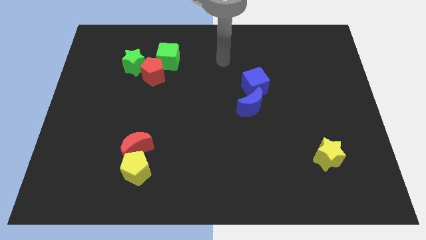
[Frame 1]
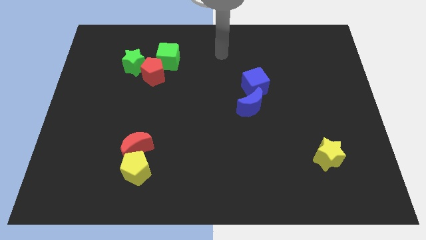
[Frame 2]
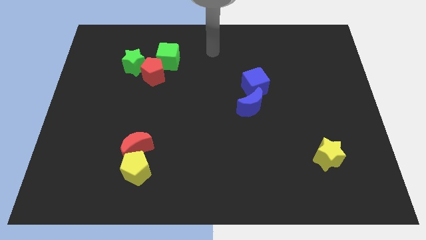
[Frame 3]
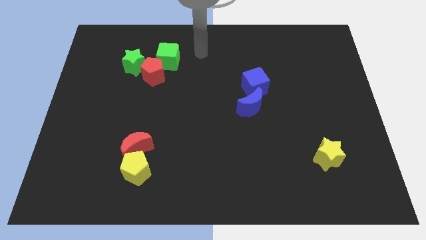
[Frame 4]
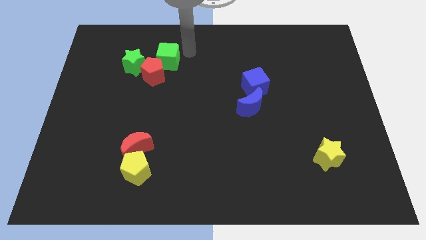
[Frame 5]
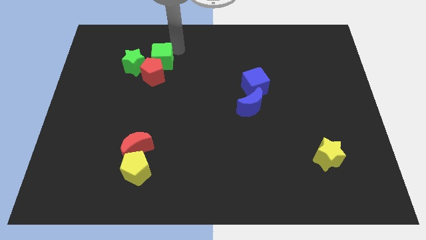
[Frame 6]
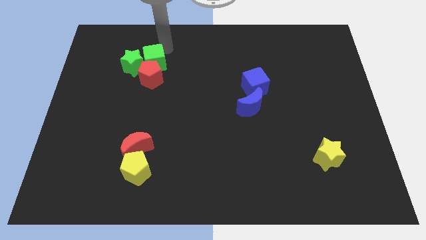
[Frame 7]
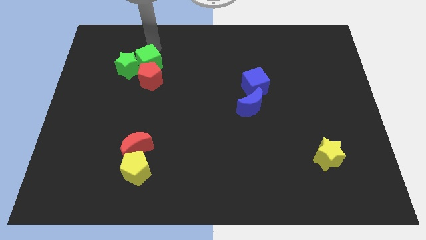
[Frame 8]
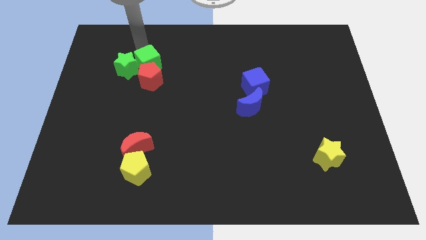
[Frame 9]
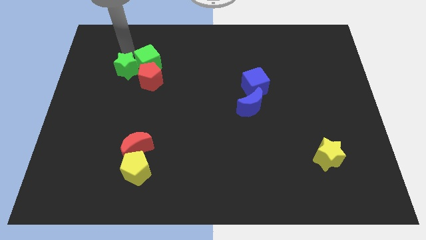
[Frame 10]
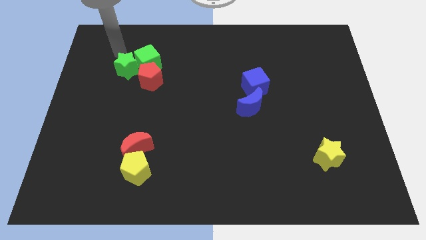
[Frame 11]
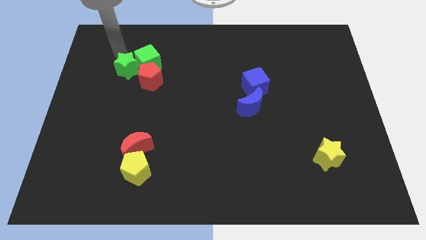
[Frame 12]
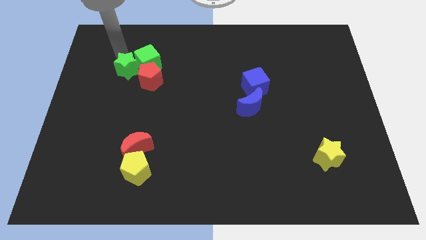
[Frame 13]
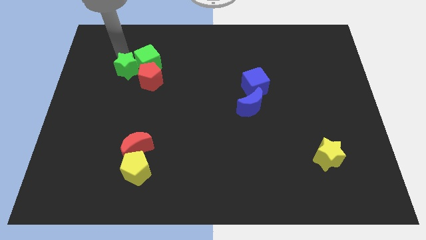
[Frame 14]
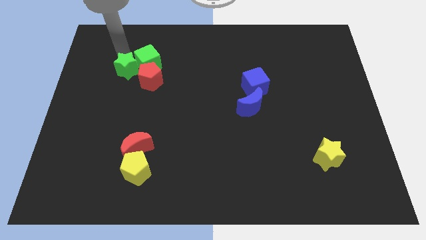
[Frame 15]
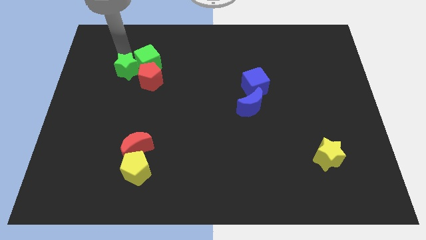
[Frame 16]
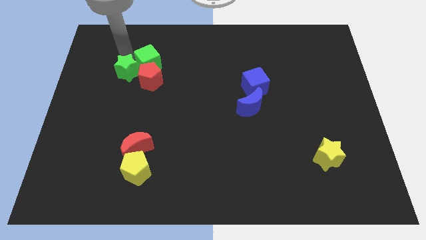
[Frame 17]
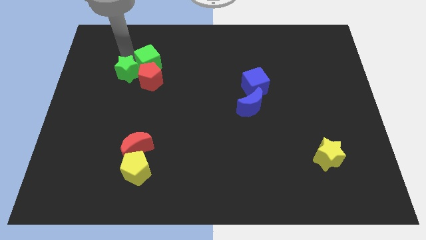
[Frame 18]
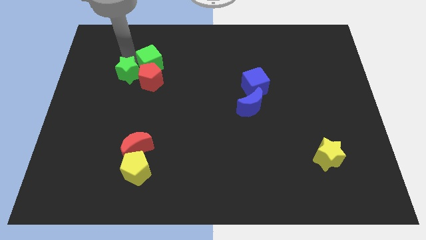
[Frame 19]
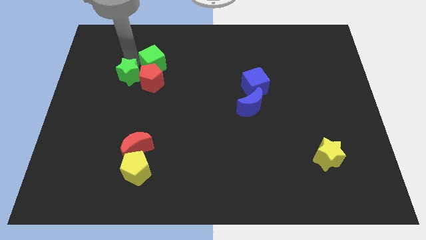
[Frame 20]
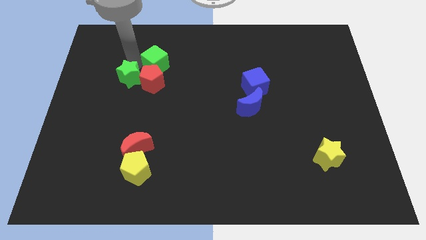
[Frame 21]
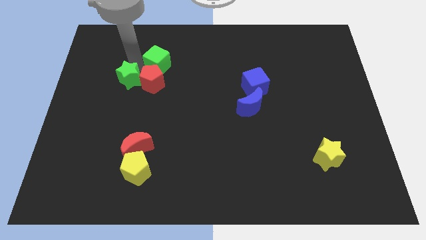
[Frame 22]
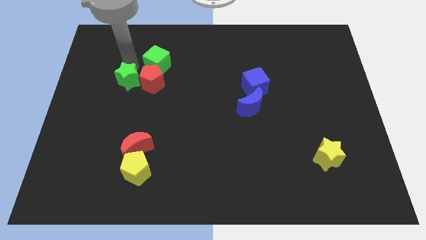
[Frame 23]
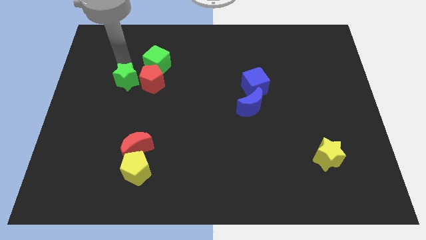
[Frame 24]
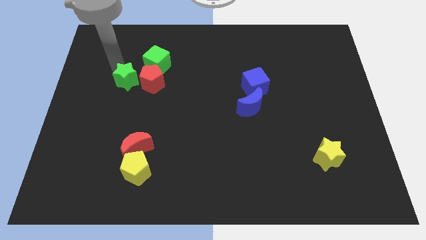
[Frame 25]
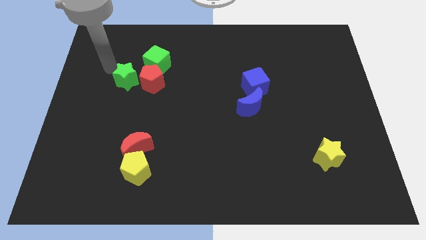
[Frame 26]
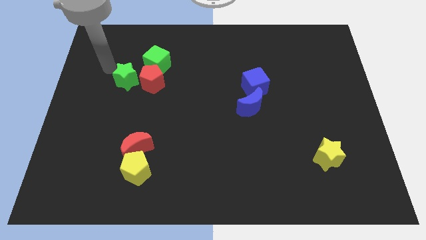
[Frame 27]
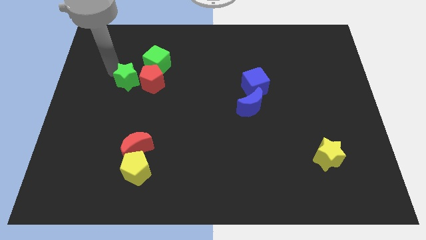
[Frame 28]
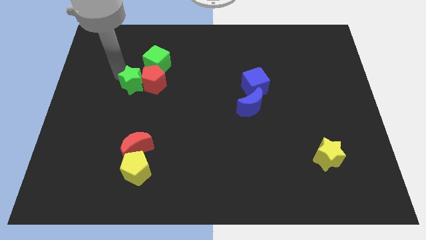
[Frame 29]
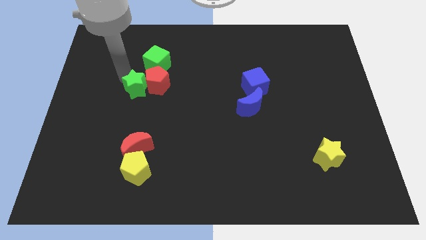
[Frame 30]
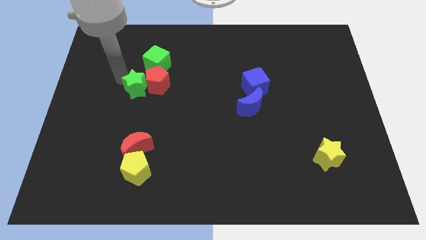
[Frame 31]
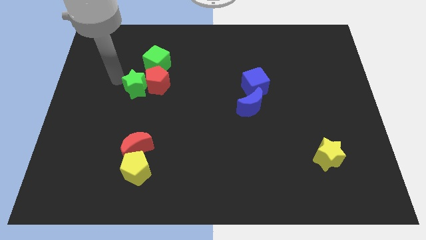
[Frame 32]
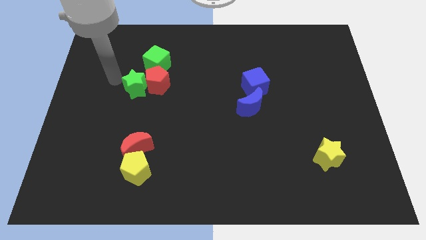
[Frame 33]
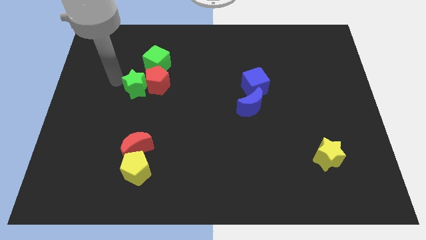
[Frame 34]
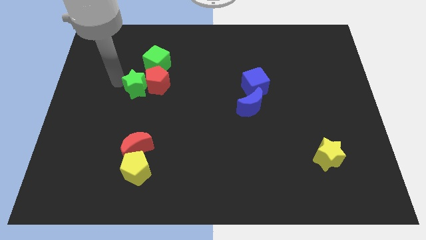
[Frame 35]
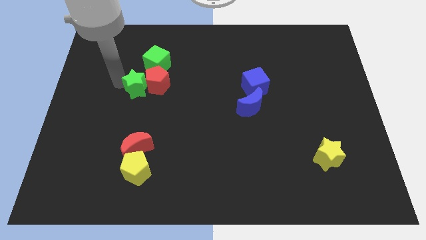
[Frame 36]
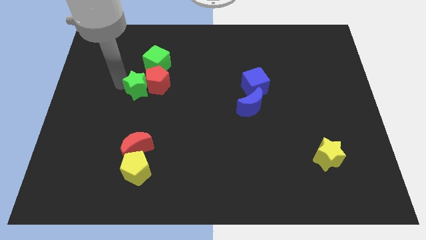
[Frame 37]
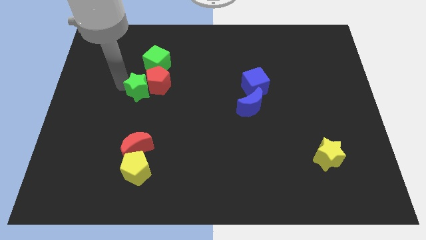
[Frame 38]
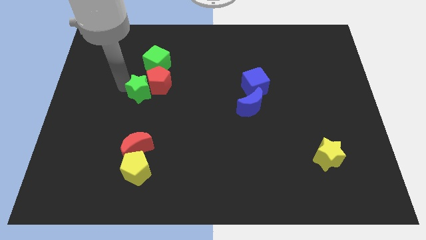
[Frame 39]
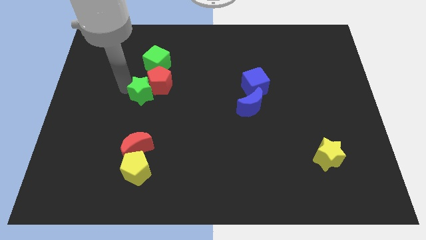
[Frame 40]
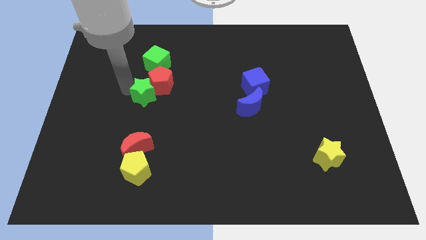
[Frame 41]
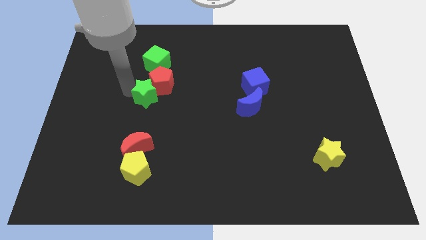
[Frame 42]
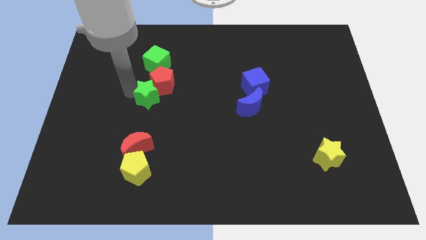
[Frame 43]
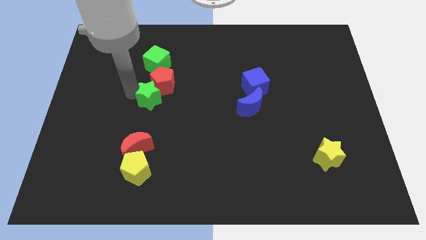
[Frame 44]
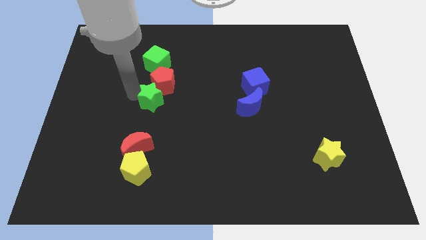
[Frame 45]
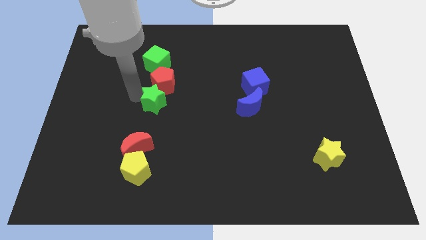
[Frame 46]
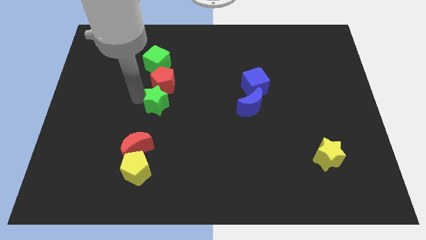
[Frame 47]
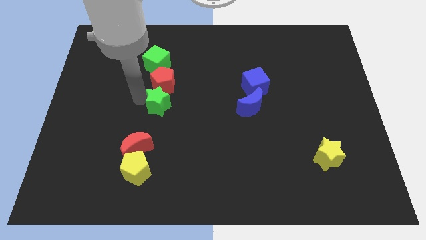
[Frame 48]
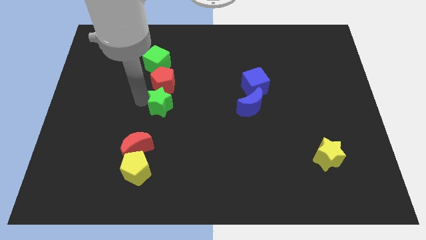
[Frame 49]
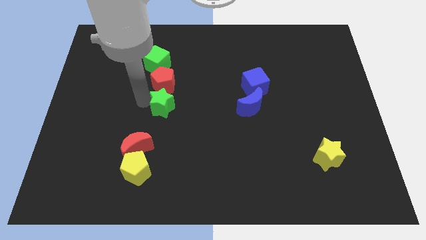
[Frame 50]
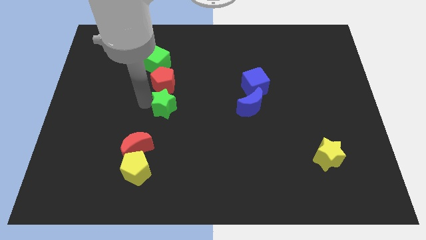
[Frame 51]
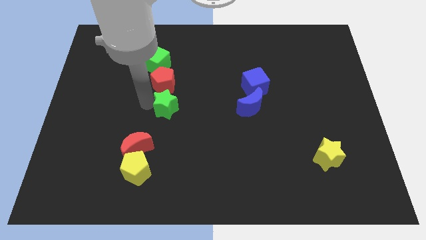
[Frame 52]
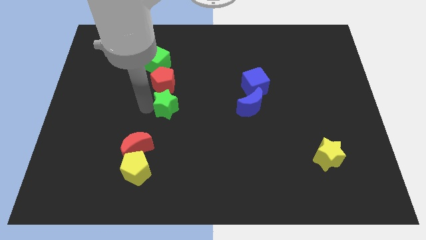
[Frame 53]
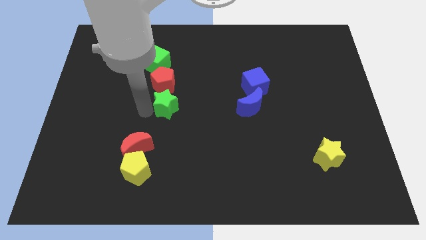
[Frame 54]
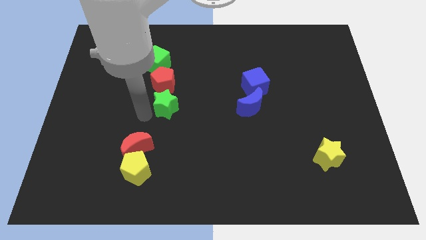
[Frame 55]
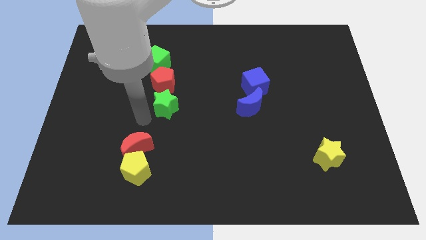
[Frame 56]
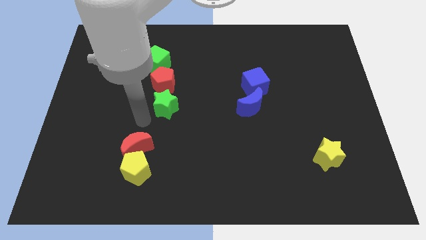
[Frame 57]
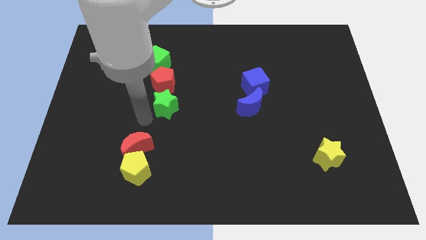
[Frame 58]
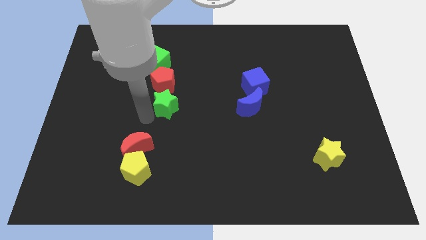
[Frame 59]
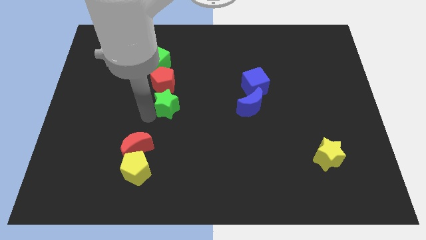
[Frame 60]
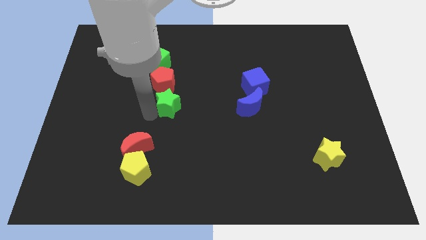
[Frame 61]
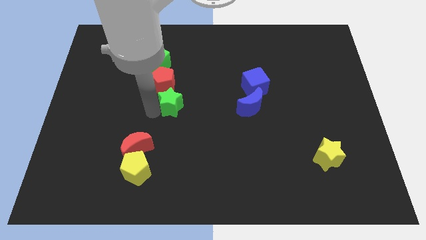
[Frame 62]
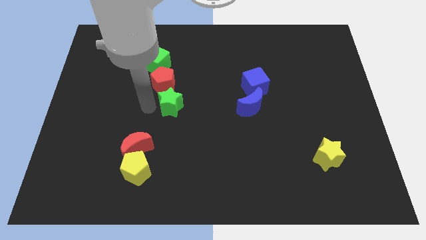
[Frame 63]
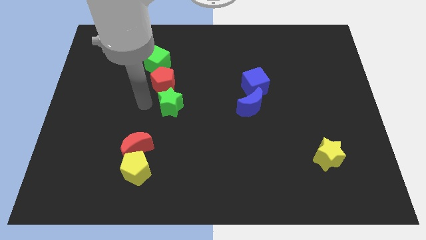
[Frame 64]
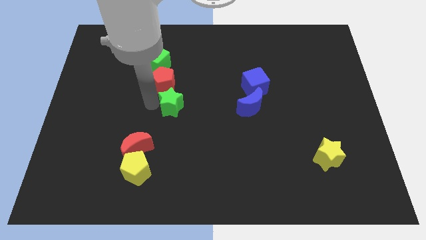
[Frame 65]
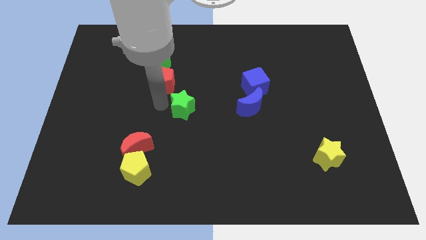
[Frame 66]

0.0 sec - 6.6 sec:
slide the green star to the left of the blue moon

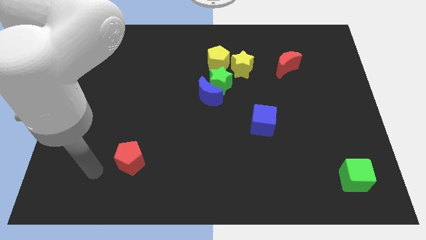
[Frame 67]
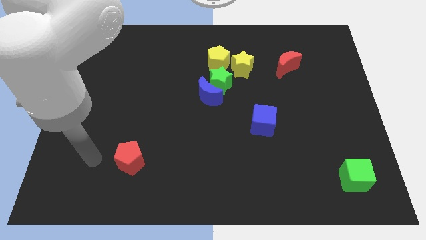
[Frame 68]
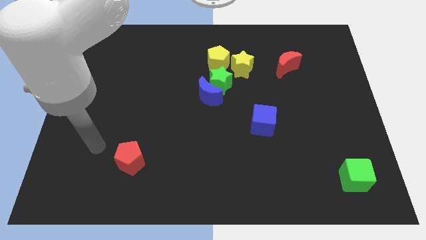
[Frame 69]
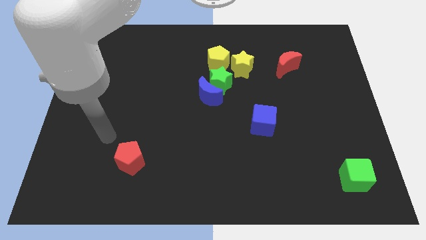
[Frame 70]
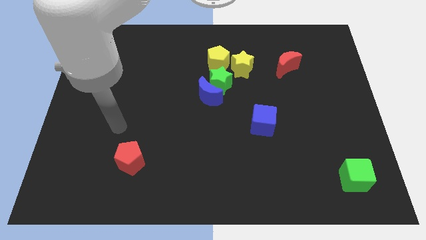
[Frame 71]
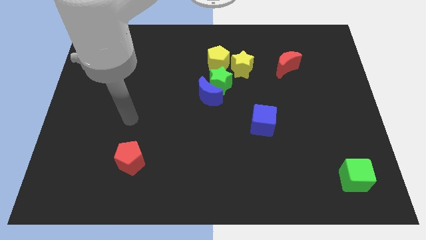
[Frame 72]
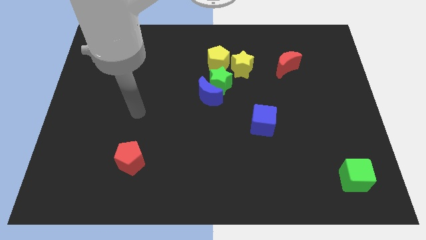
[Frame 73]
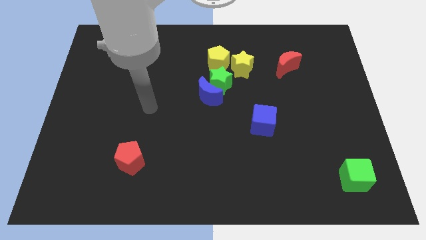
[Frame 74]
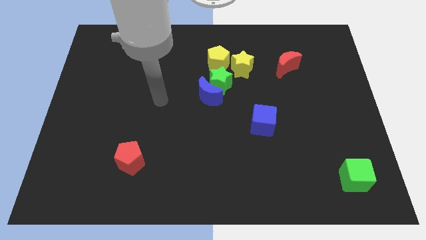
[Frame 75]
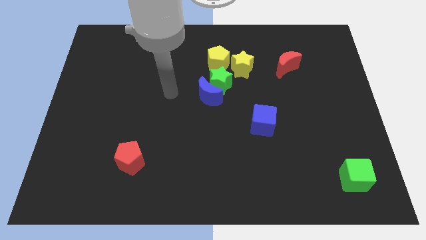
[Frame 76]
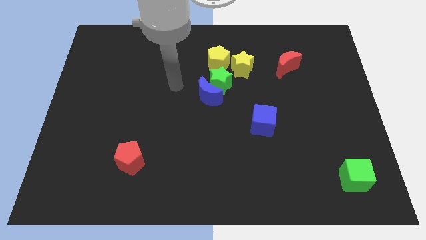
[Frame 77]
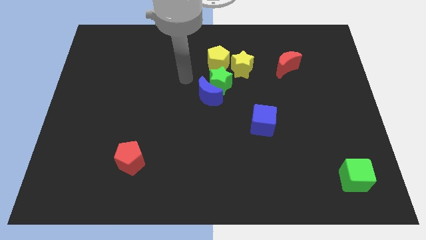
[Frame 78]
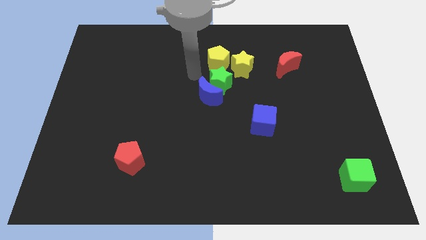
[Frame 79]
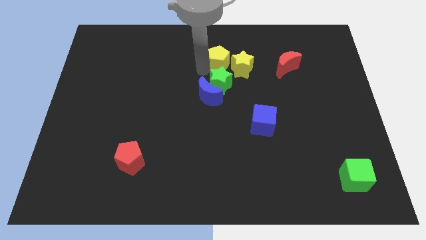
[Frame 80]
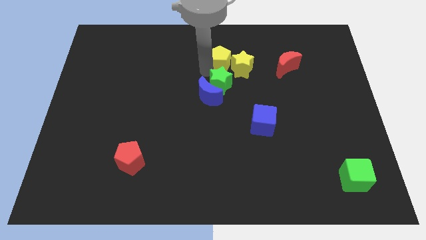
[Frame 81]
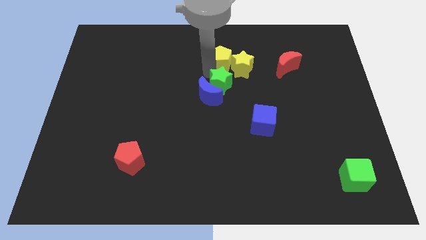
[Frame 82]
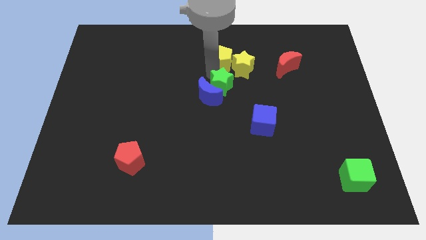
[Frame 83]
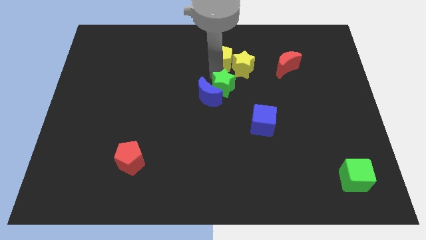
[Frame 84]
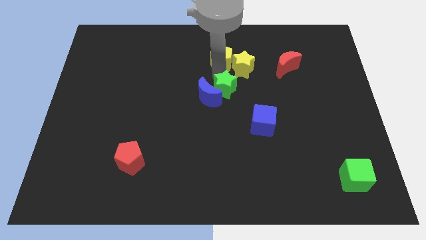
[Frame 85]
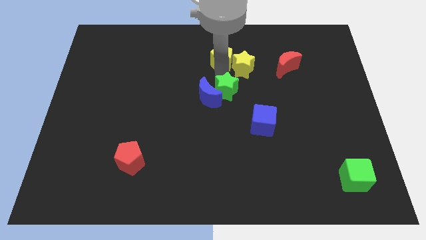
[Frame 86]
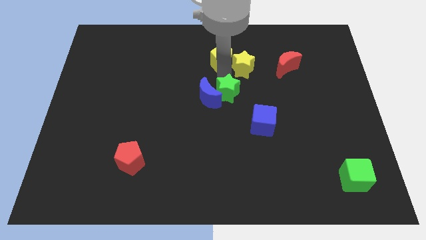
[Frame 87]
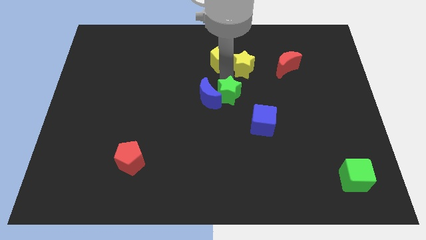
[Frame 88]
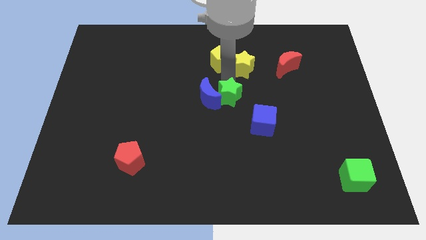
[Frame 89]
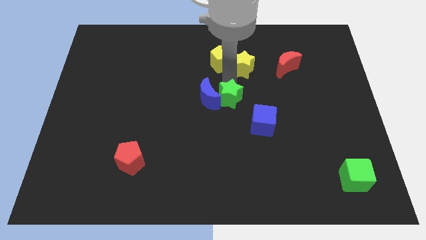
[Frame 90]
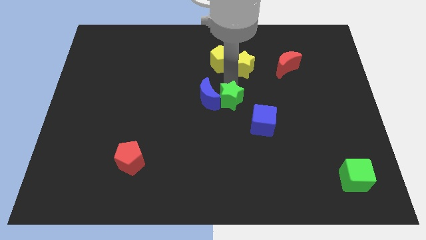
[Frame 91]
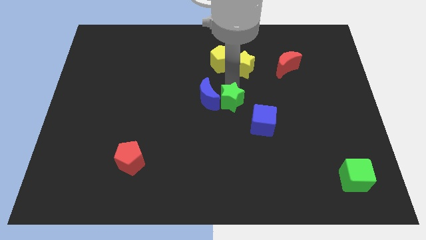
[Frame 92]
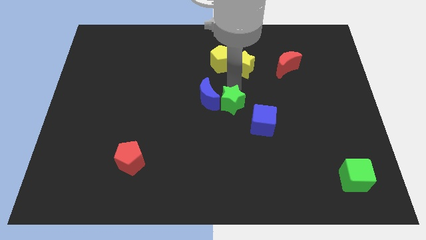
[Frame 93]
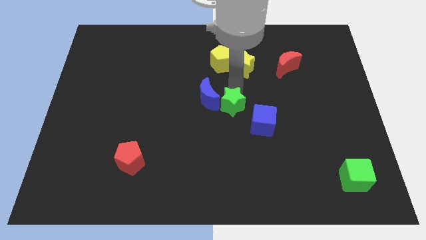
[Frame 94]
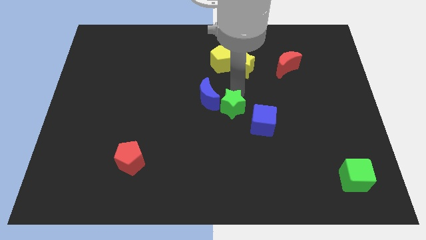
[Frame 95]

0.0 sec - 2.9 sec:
put the green star just left of the blue cube
